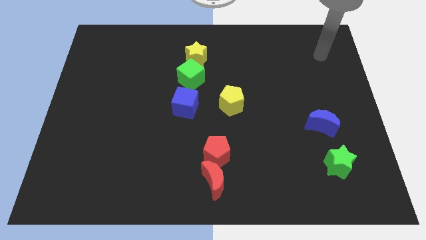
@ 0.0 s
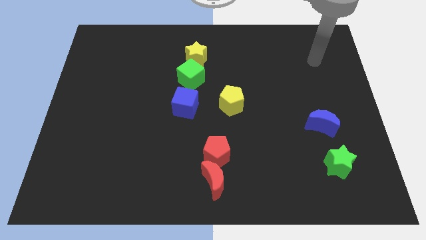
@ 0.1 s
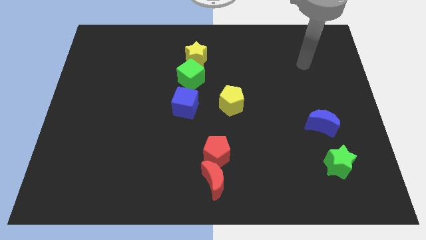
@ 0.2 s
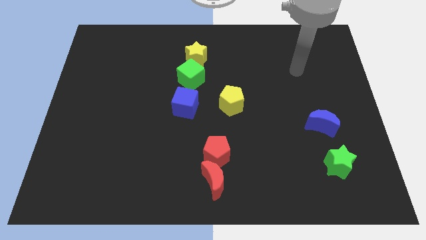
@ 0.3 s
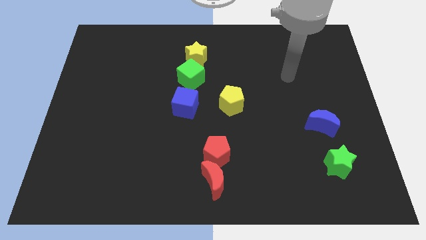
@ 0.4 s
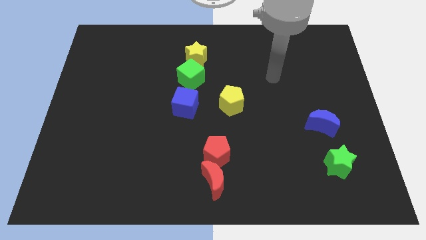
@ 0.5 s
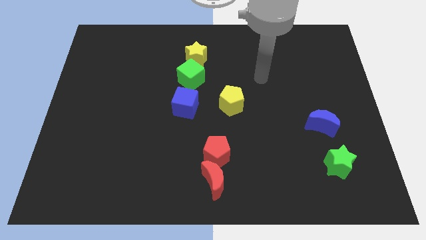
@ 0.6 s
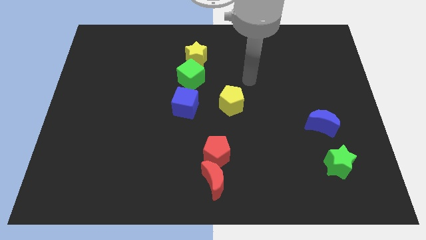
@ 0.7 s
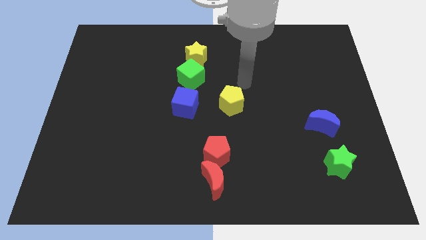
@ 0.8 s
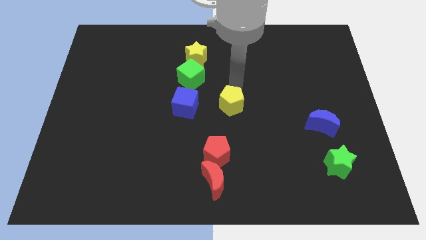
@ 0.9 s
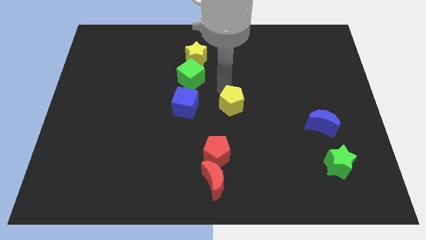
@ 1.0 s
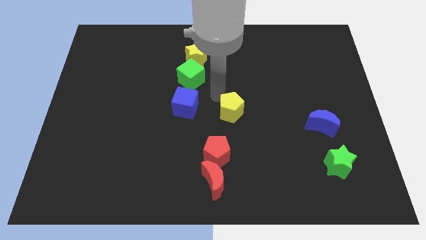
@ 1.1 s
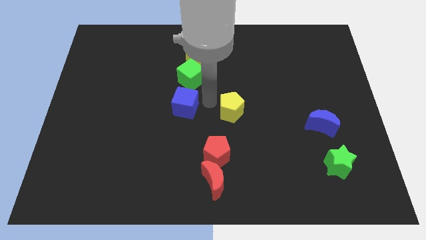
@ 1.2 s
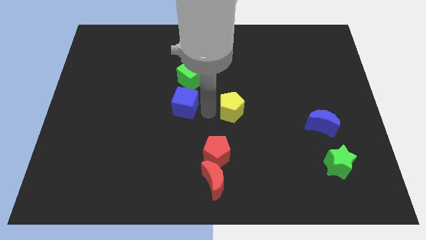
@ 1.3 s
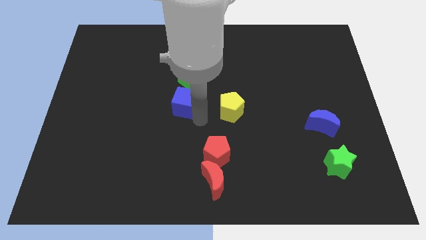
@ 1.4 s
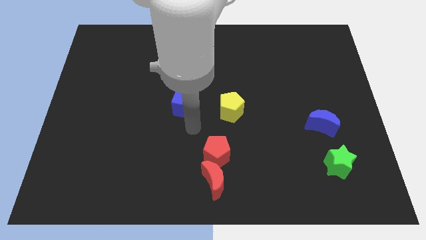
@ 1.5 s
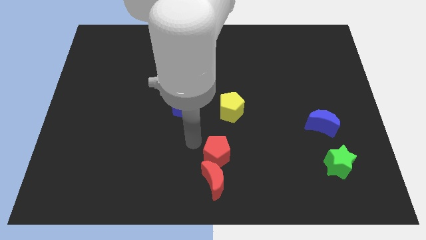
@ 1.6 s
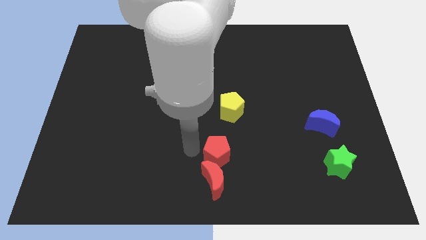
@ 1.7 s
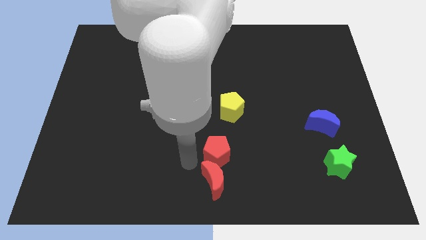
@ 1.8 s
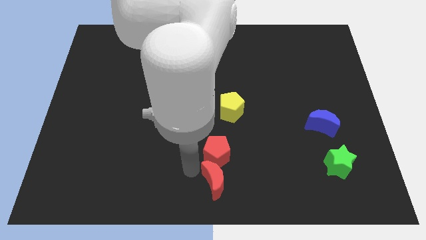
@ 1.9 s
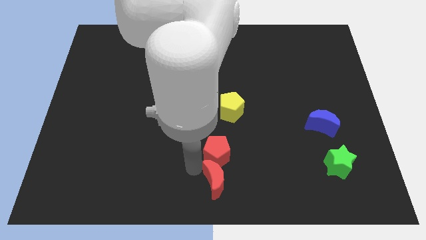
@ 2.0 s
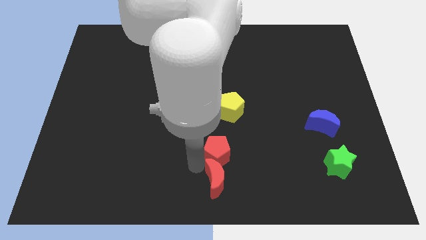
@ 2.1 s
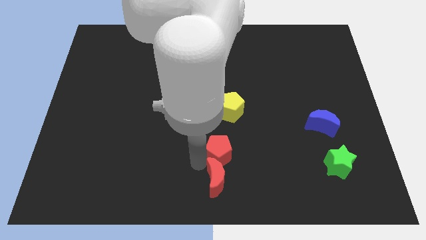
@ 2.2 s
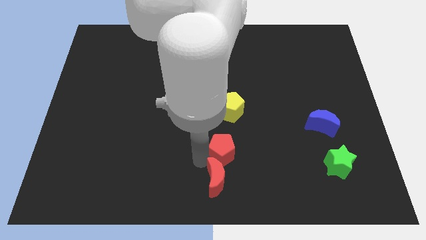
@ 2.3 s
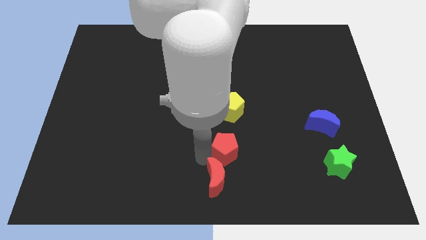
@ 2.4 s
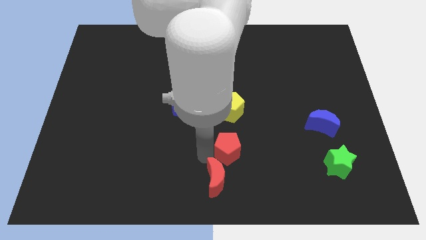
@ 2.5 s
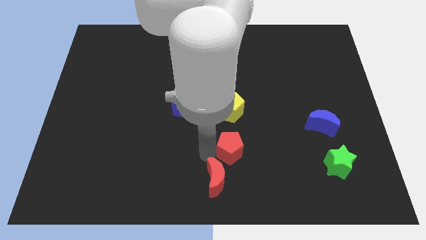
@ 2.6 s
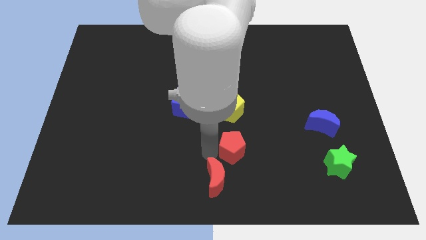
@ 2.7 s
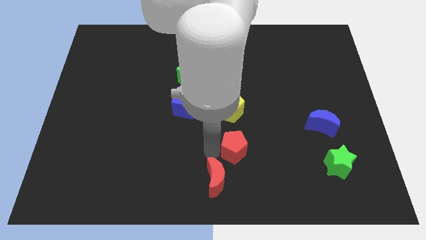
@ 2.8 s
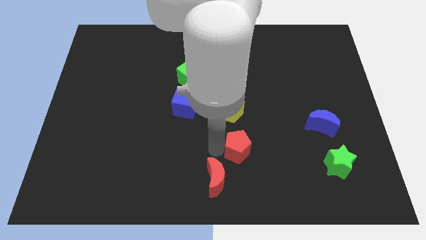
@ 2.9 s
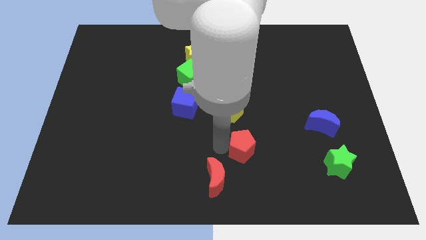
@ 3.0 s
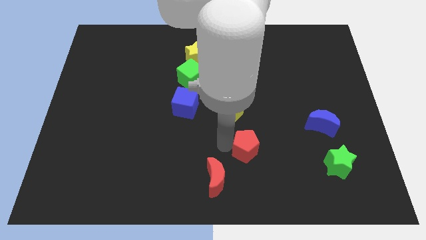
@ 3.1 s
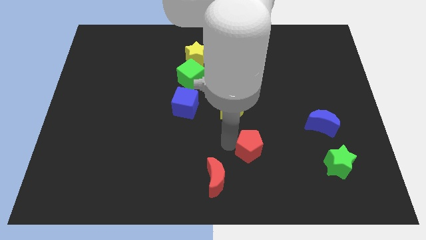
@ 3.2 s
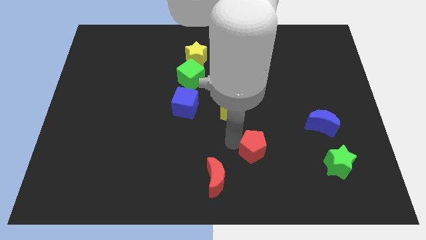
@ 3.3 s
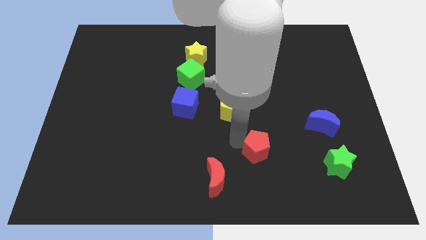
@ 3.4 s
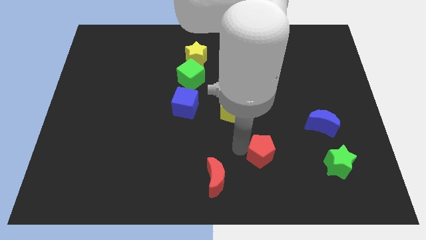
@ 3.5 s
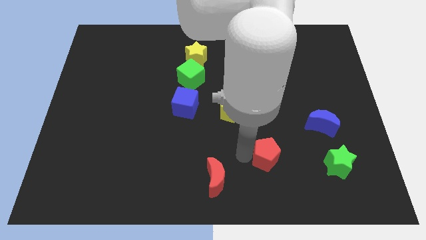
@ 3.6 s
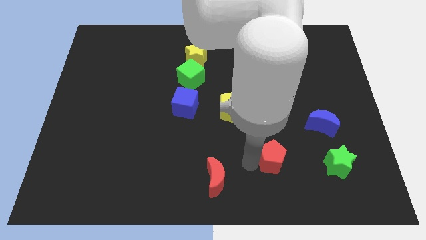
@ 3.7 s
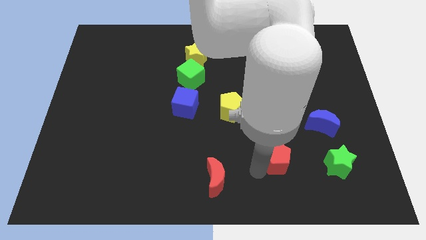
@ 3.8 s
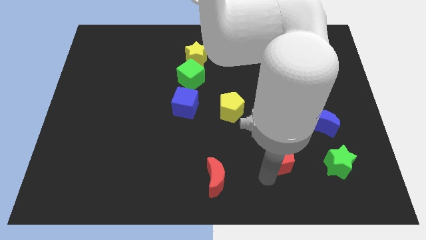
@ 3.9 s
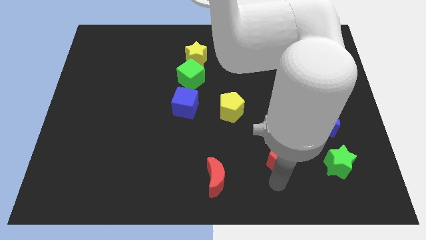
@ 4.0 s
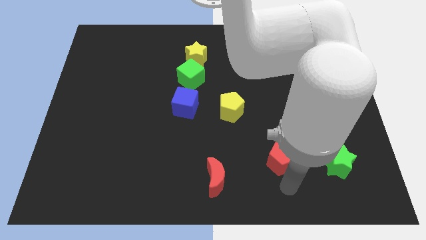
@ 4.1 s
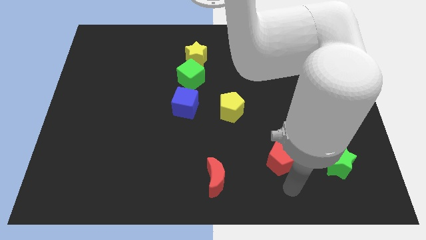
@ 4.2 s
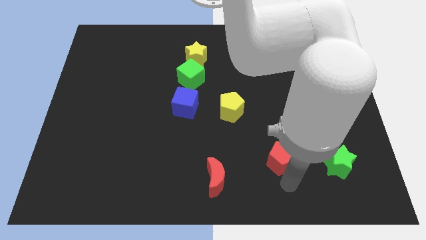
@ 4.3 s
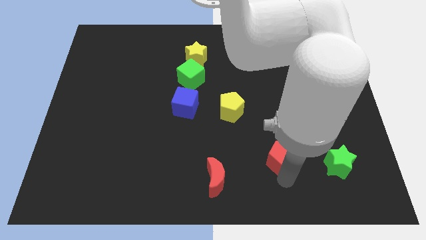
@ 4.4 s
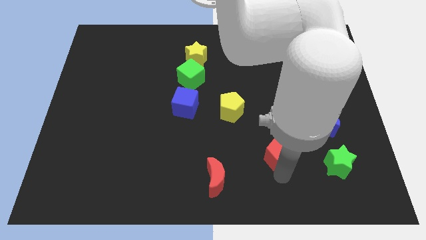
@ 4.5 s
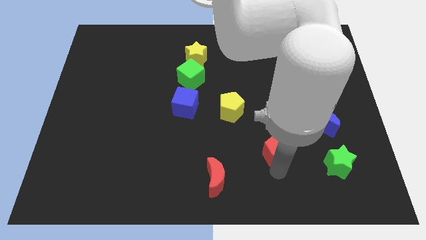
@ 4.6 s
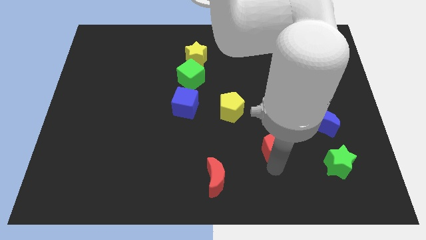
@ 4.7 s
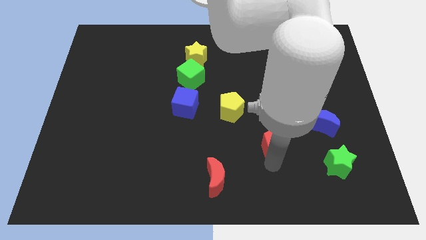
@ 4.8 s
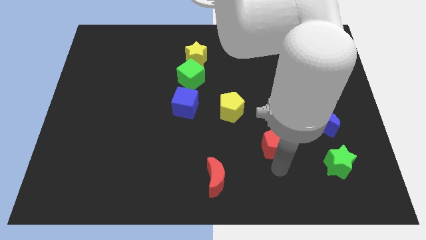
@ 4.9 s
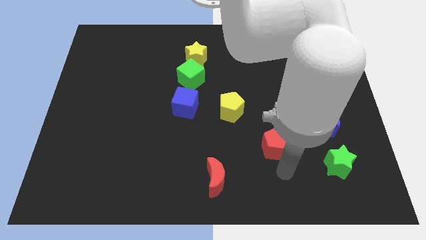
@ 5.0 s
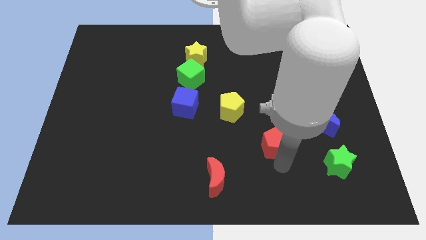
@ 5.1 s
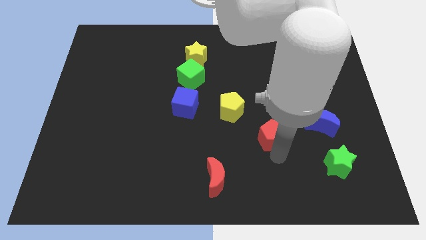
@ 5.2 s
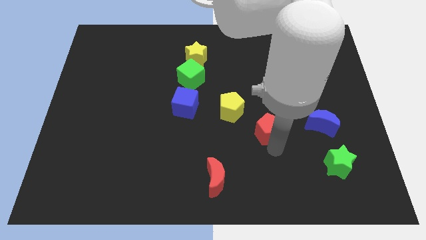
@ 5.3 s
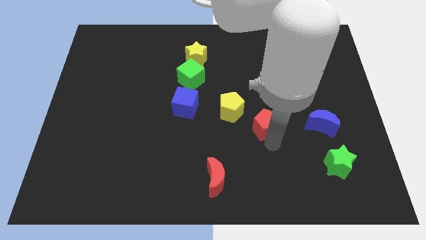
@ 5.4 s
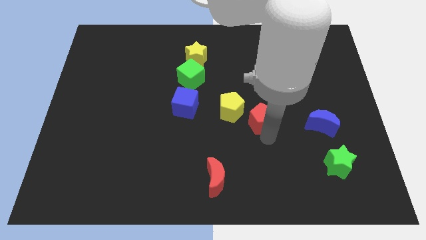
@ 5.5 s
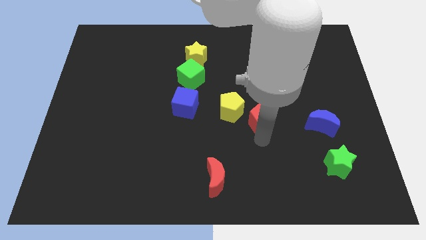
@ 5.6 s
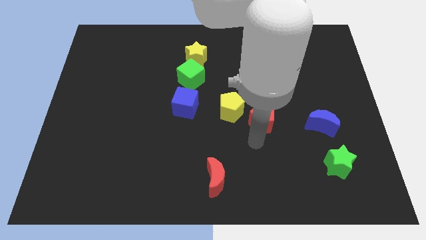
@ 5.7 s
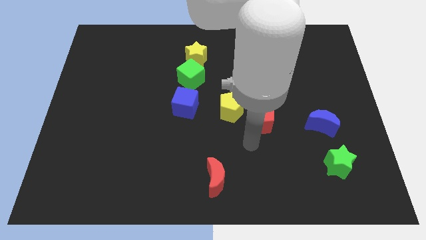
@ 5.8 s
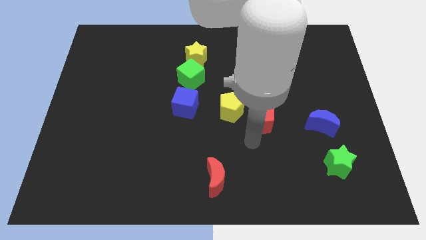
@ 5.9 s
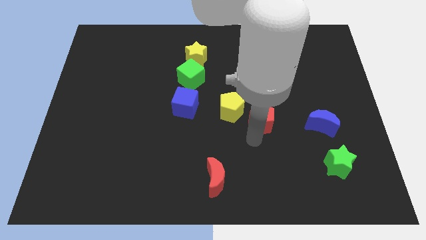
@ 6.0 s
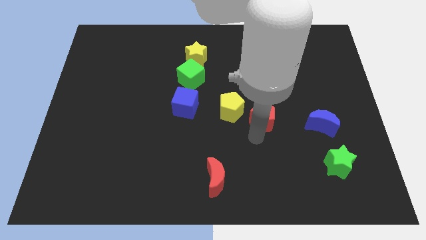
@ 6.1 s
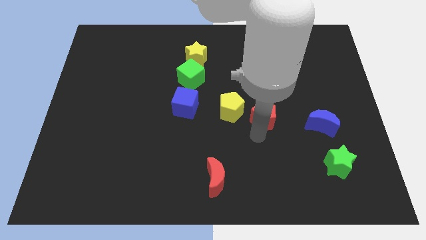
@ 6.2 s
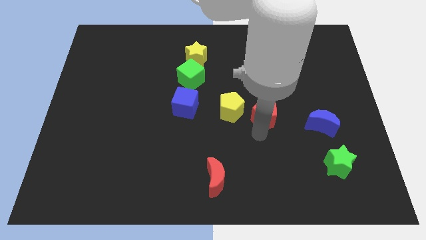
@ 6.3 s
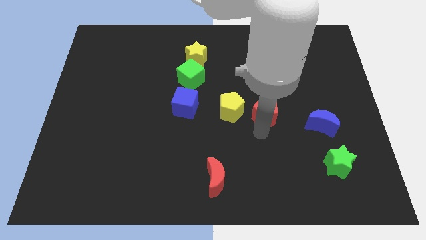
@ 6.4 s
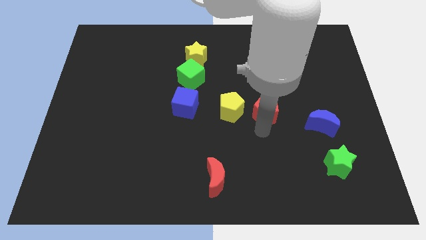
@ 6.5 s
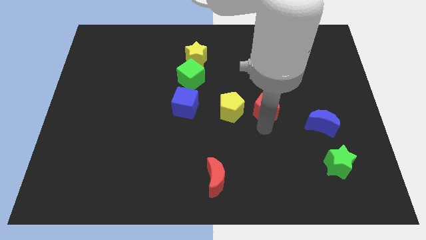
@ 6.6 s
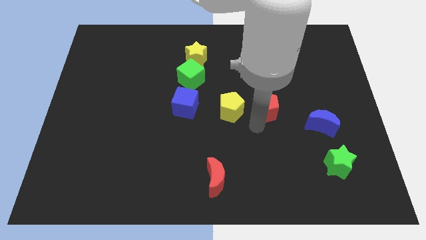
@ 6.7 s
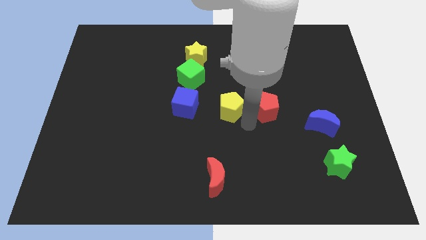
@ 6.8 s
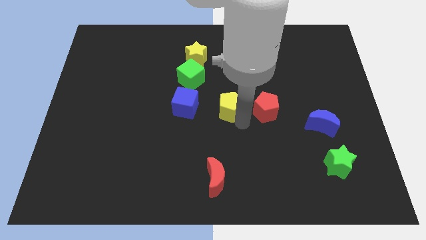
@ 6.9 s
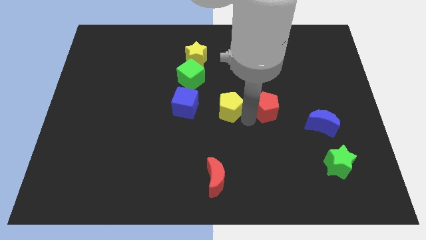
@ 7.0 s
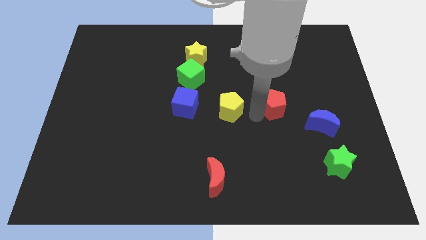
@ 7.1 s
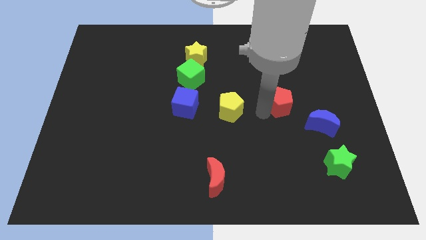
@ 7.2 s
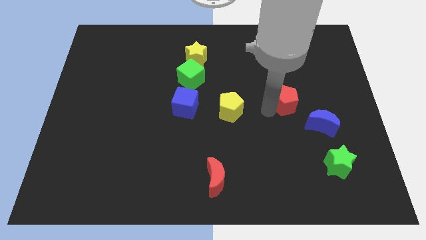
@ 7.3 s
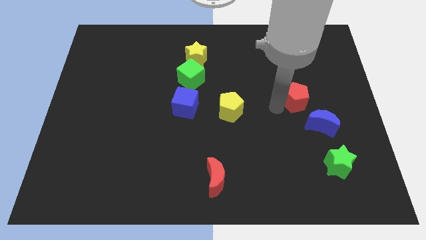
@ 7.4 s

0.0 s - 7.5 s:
move the red pentagon above the blue moon
